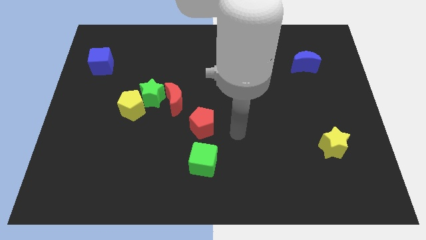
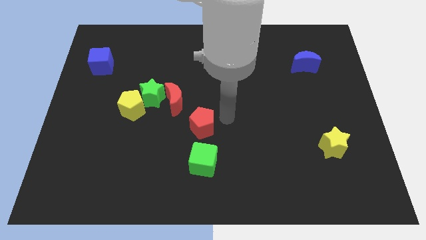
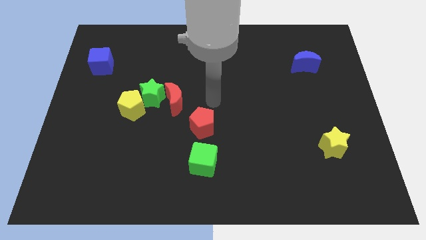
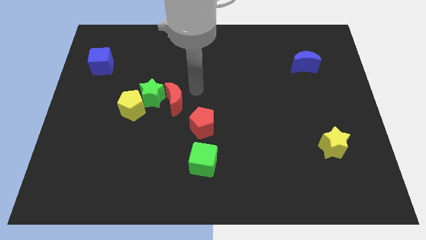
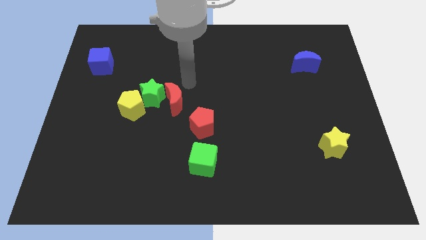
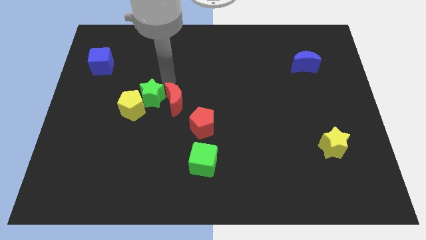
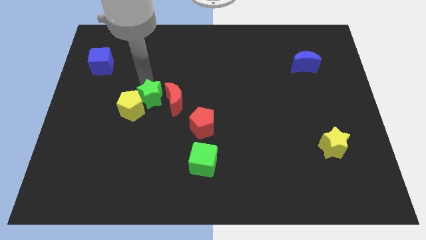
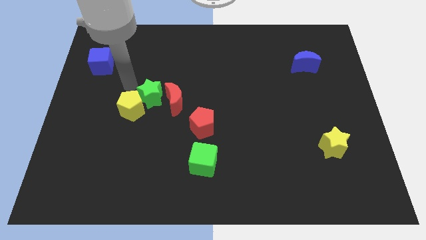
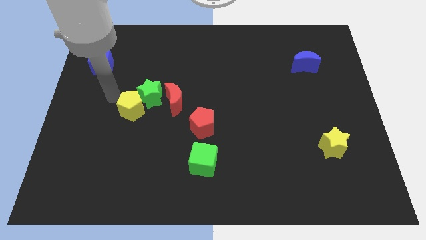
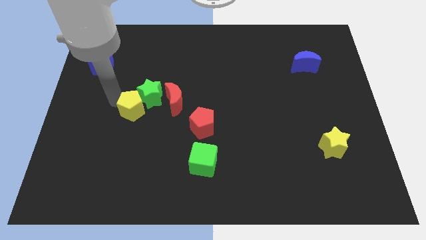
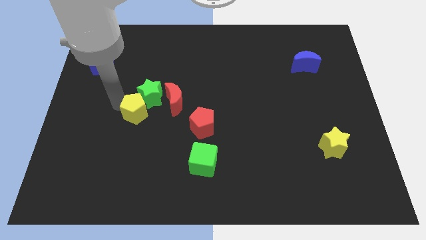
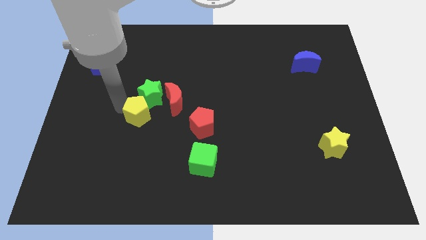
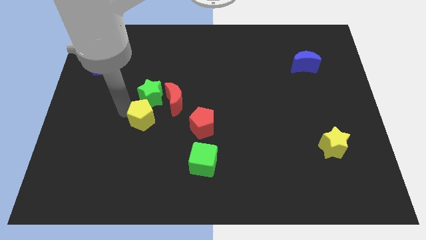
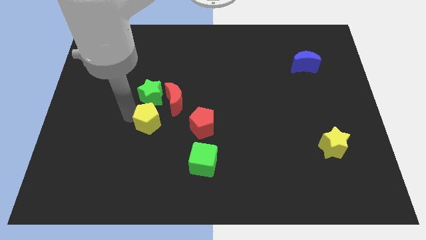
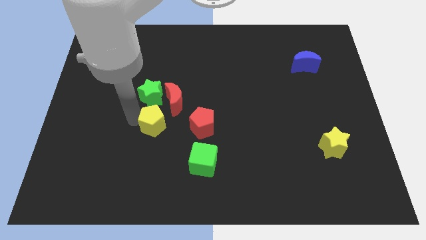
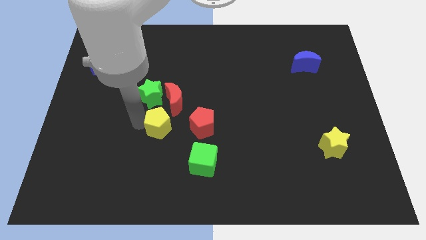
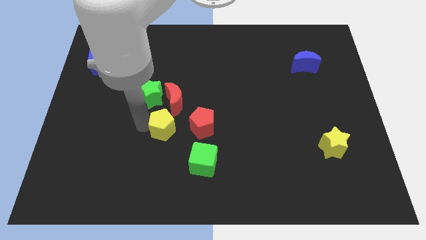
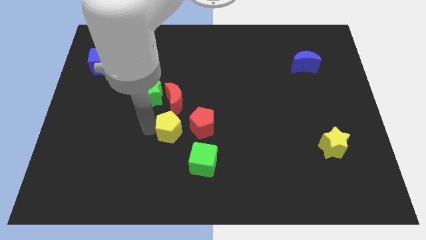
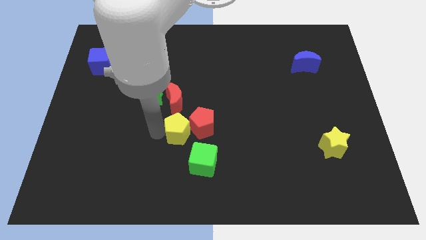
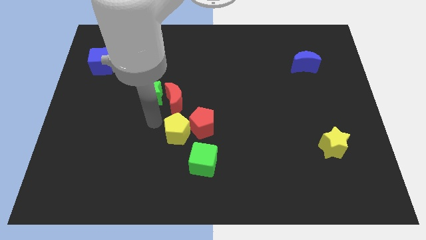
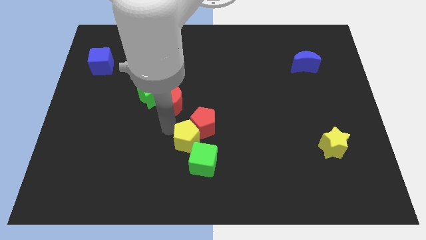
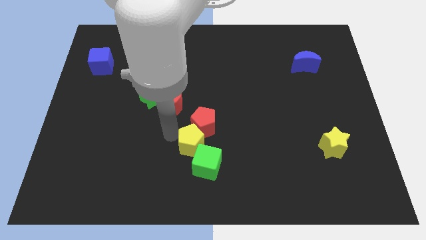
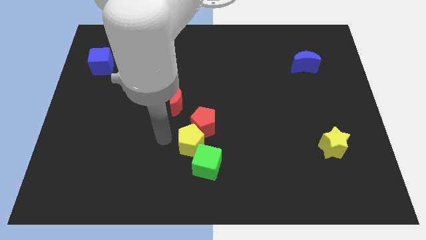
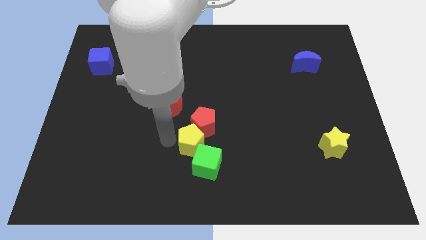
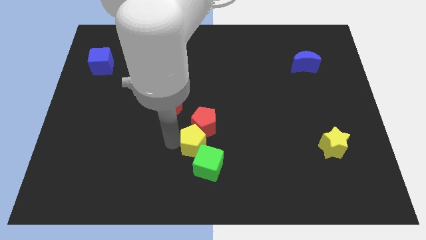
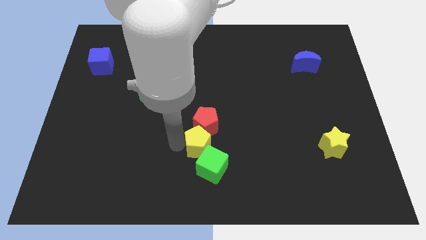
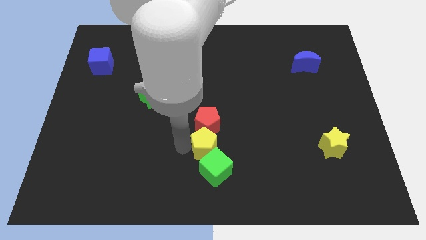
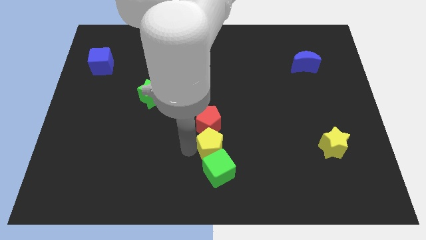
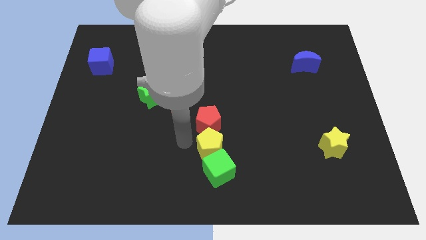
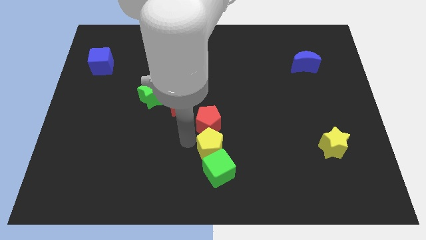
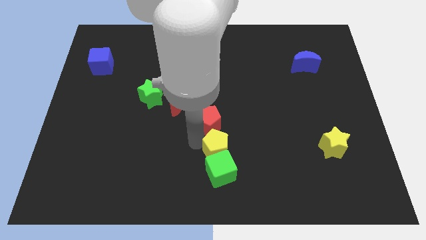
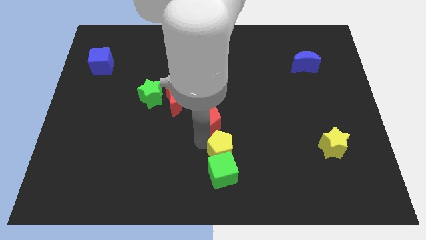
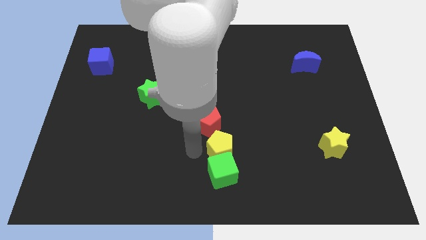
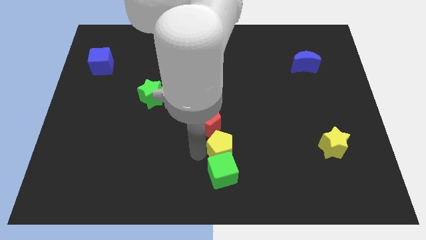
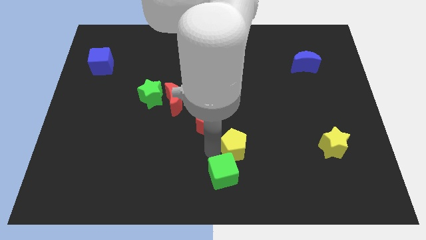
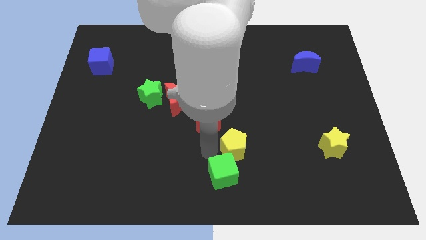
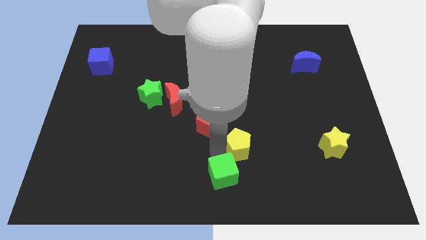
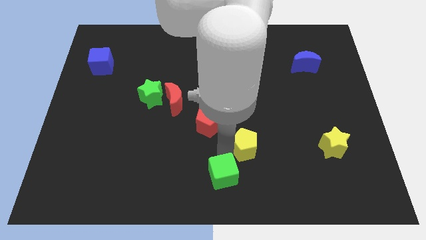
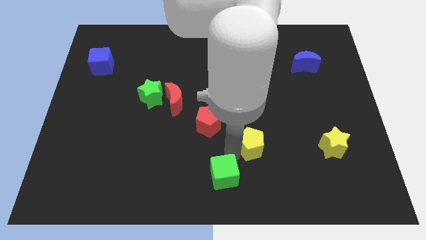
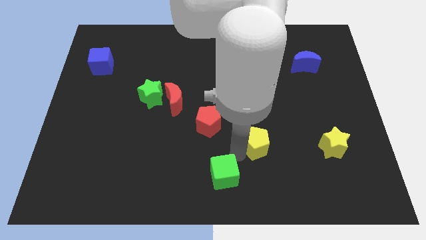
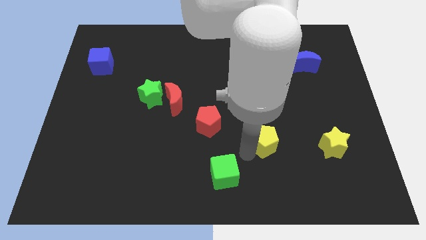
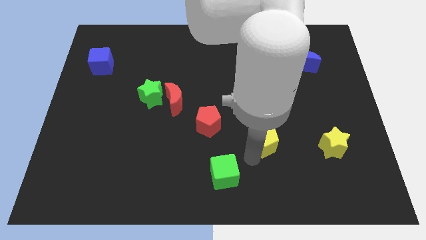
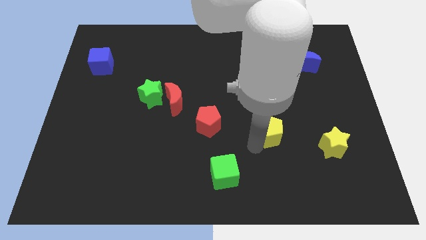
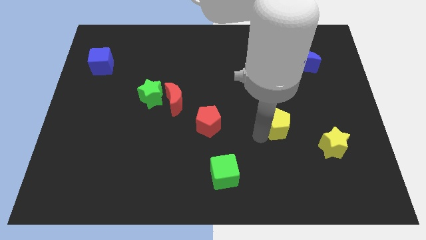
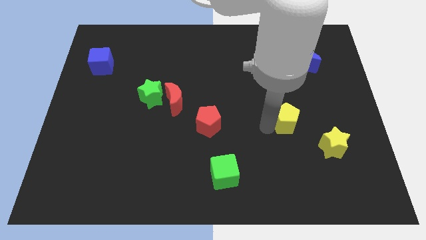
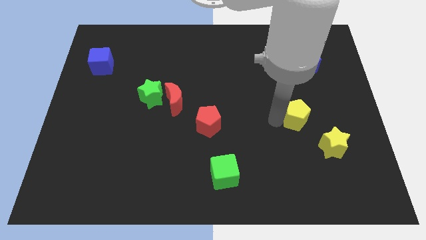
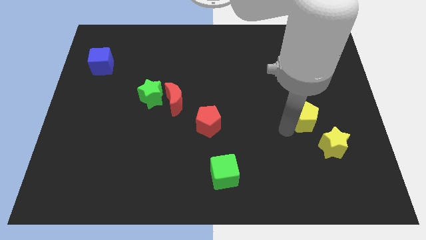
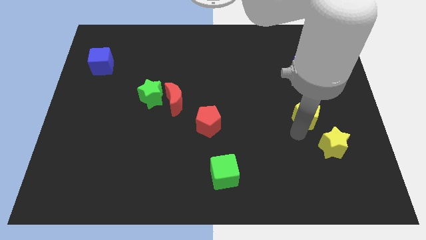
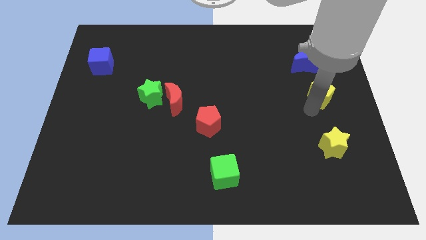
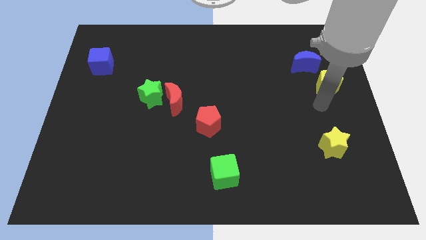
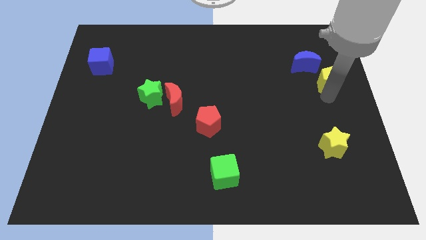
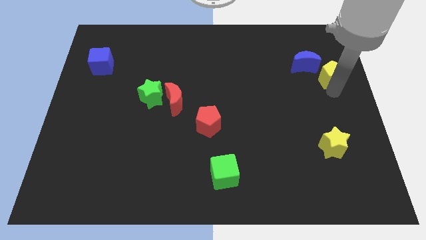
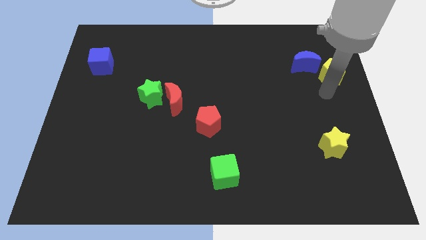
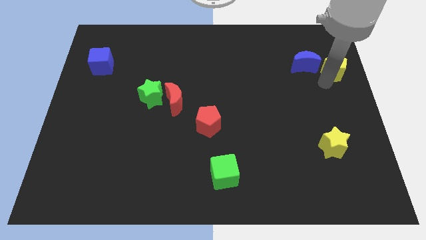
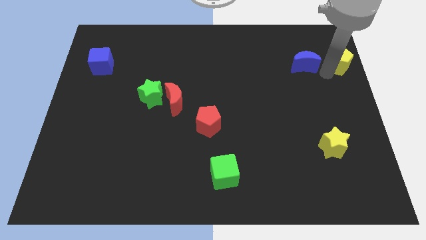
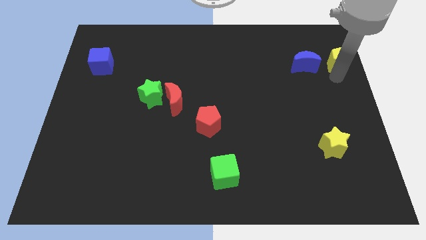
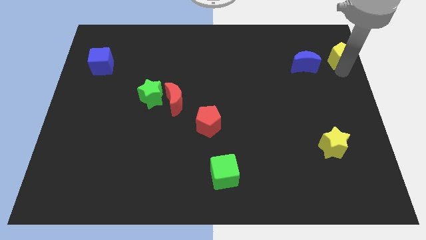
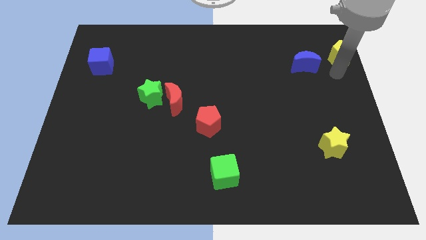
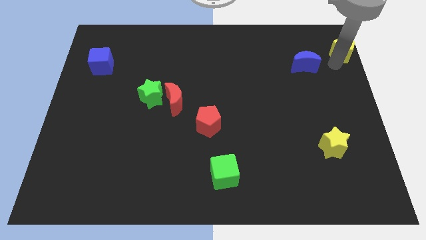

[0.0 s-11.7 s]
slide the yellow pentagon to the top right of the board
